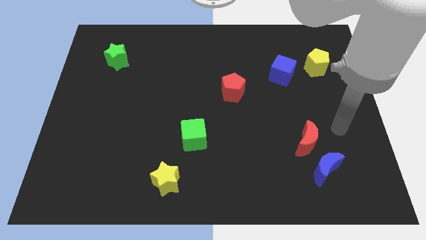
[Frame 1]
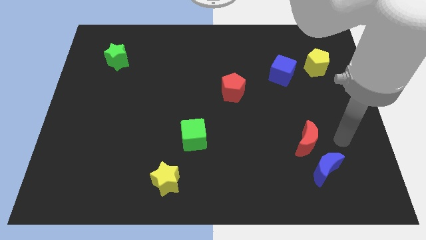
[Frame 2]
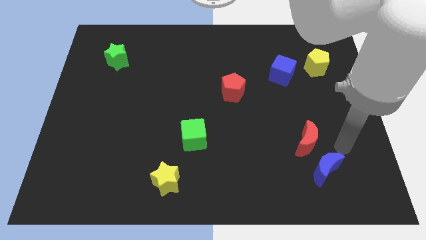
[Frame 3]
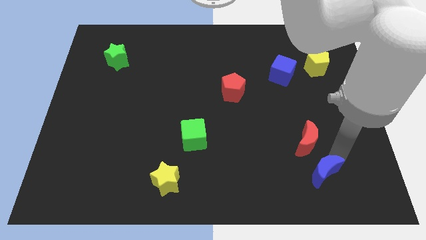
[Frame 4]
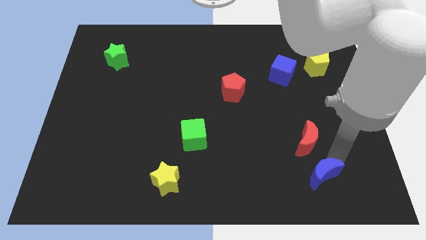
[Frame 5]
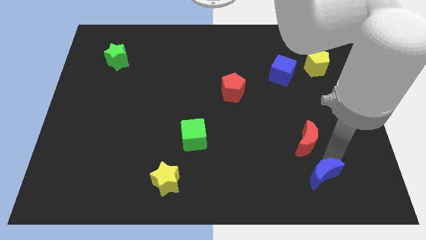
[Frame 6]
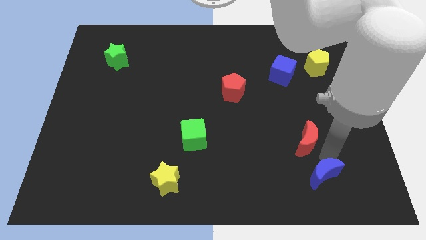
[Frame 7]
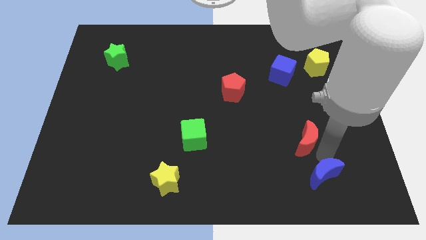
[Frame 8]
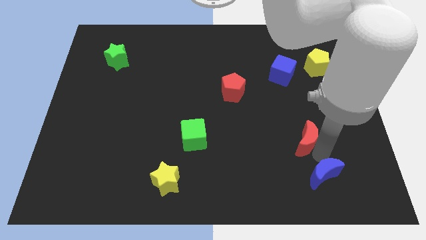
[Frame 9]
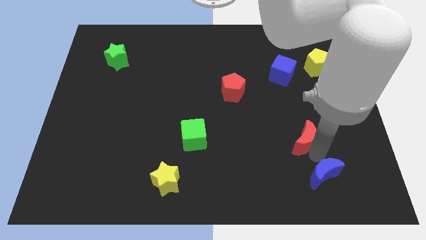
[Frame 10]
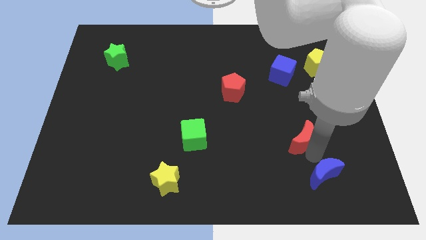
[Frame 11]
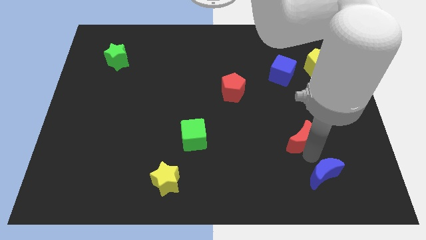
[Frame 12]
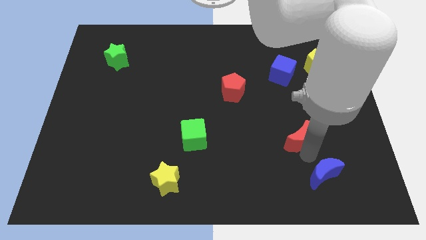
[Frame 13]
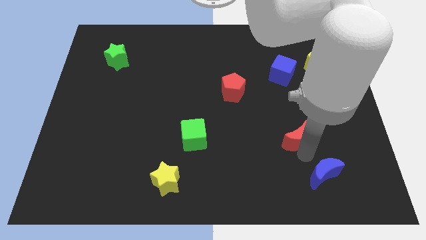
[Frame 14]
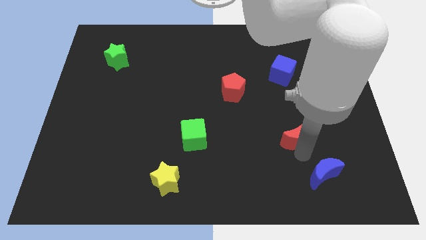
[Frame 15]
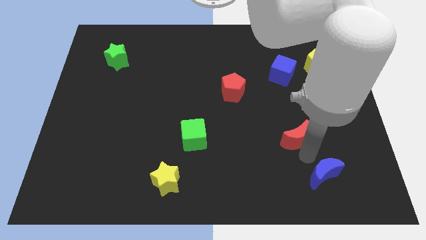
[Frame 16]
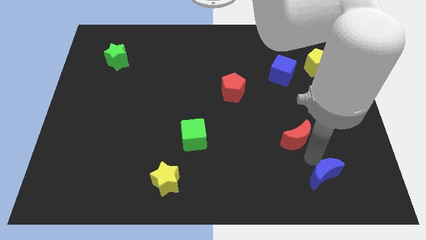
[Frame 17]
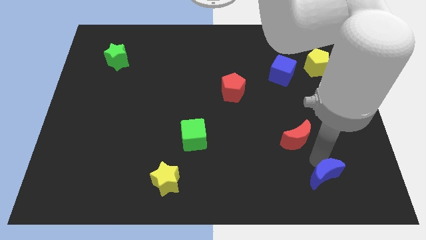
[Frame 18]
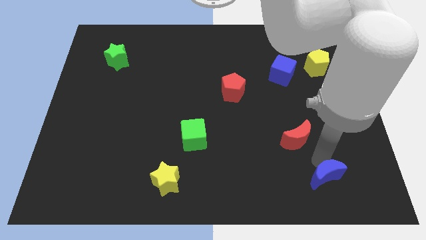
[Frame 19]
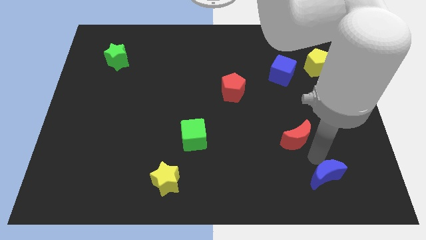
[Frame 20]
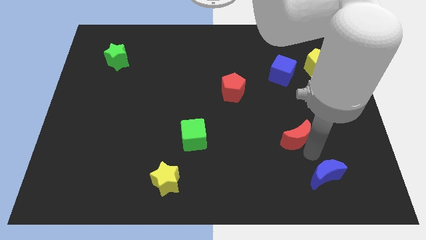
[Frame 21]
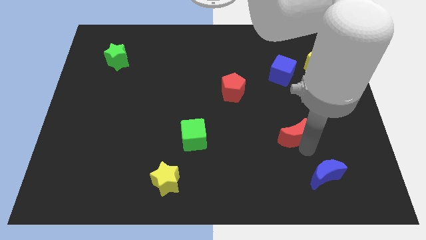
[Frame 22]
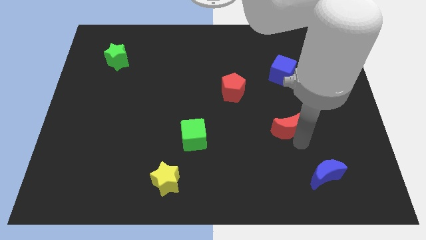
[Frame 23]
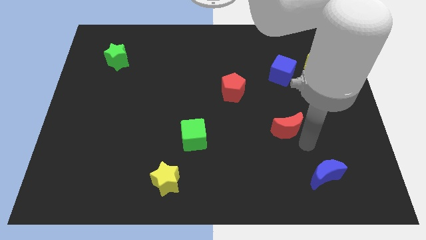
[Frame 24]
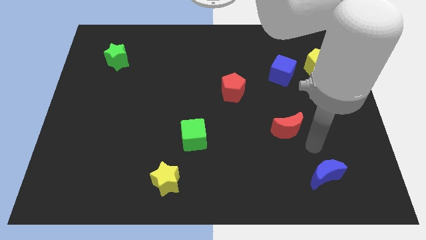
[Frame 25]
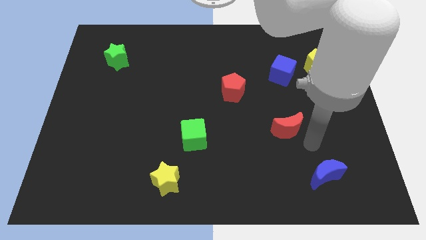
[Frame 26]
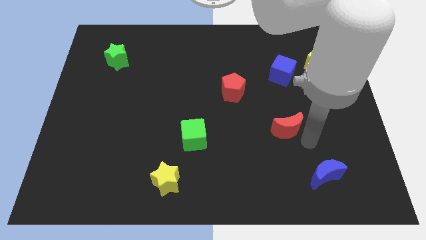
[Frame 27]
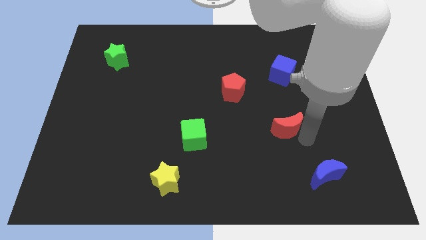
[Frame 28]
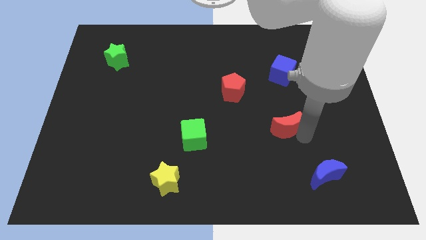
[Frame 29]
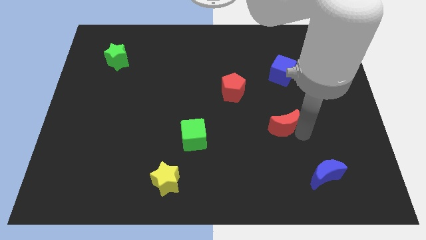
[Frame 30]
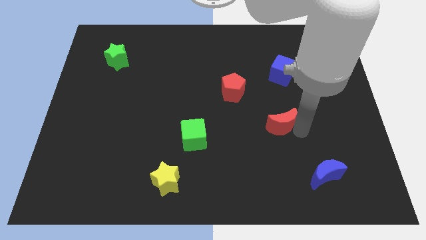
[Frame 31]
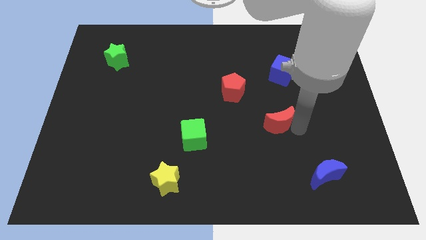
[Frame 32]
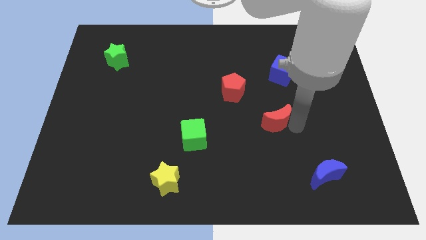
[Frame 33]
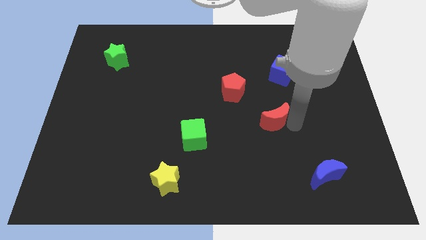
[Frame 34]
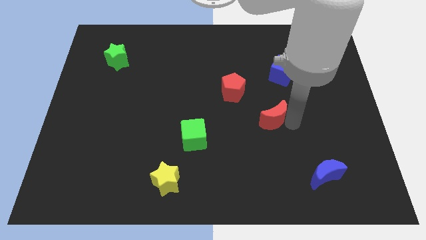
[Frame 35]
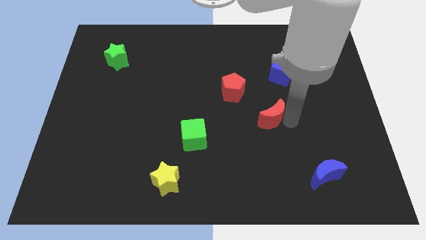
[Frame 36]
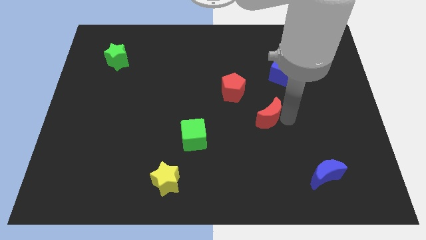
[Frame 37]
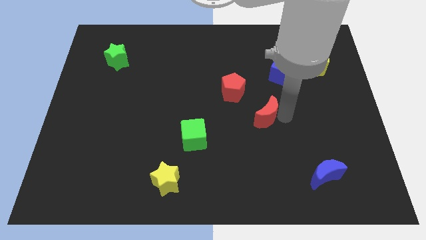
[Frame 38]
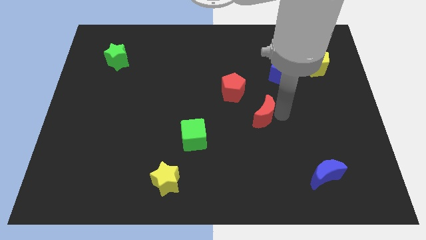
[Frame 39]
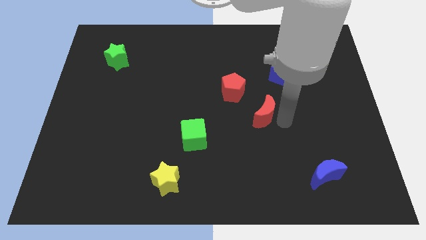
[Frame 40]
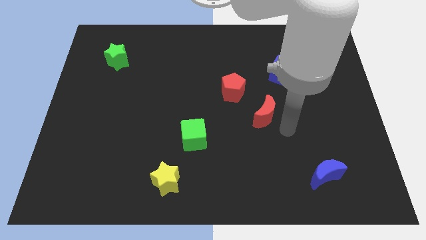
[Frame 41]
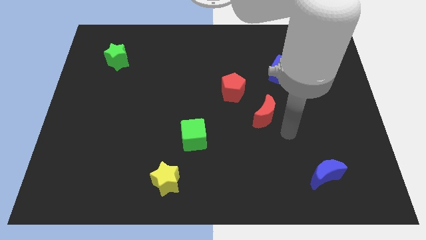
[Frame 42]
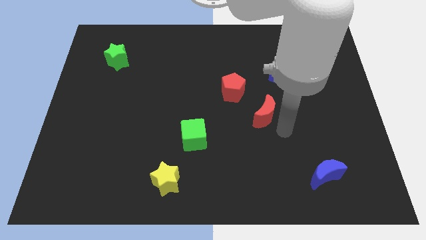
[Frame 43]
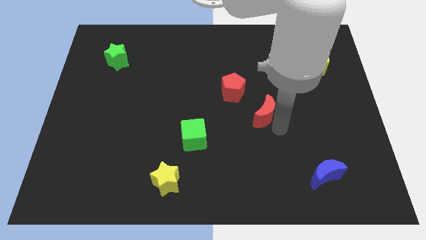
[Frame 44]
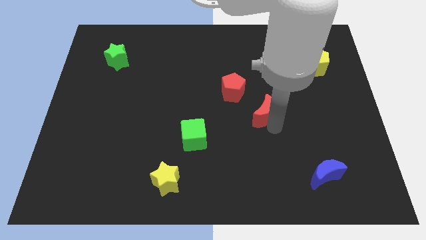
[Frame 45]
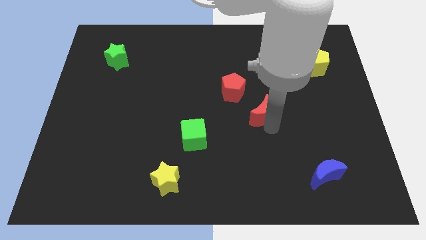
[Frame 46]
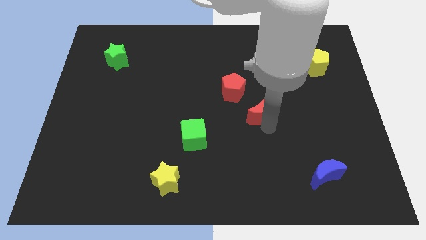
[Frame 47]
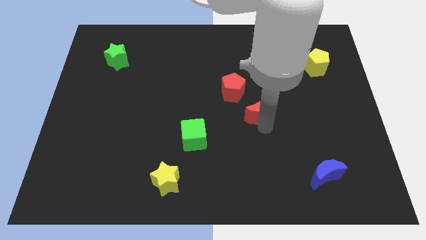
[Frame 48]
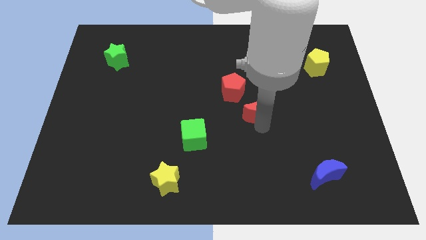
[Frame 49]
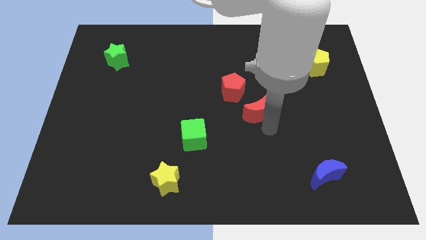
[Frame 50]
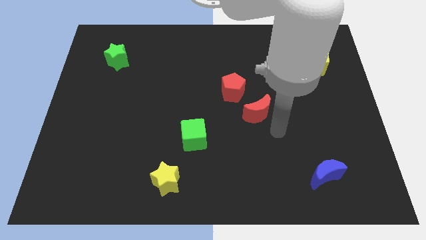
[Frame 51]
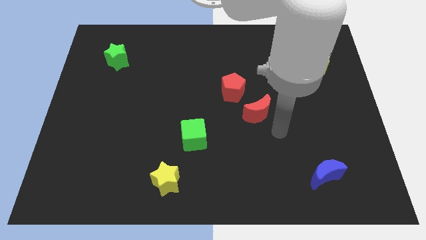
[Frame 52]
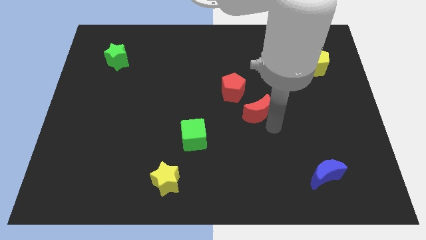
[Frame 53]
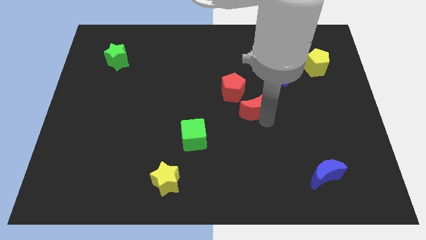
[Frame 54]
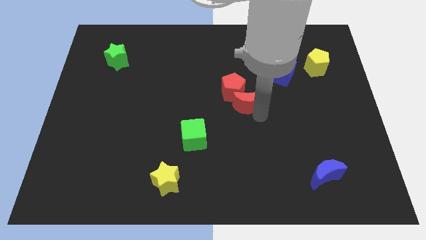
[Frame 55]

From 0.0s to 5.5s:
slide the red moon to the red pentagon
